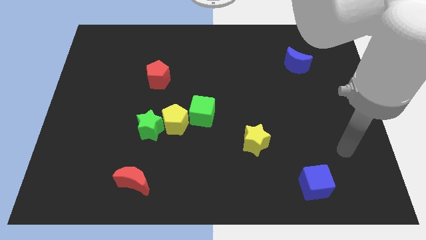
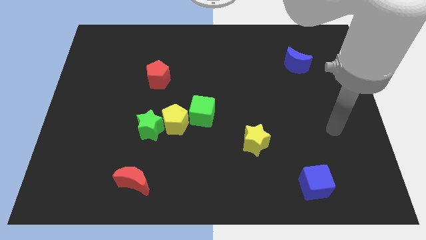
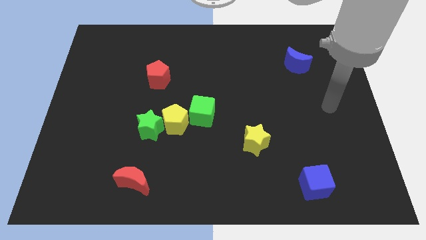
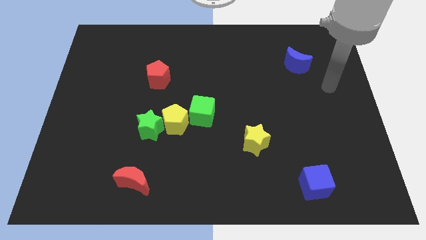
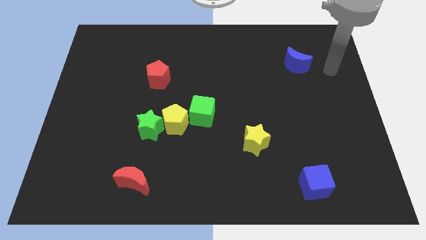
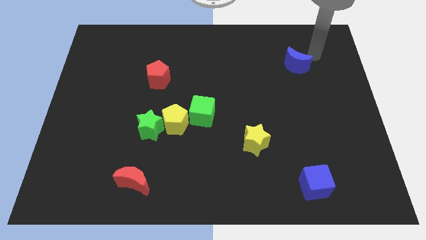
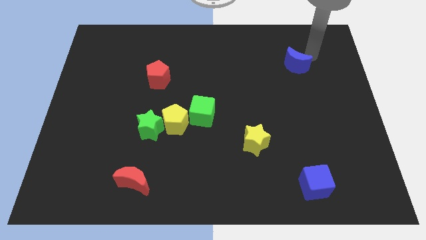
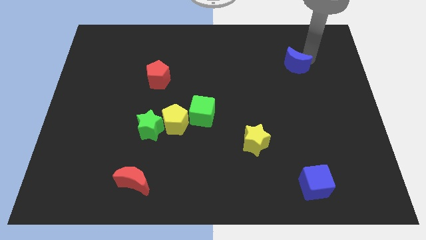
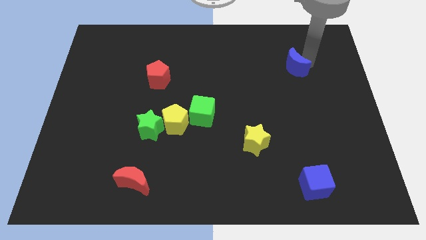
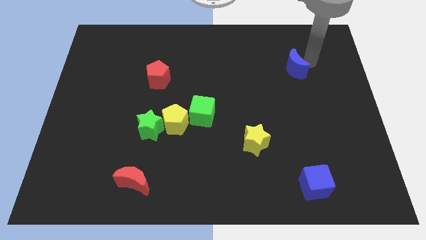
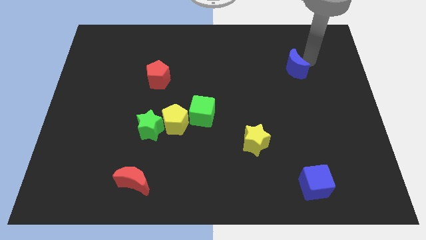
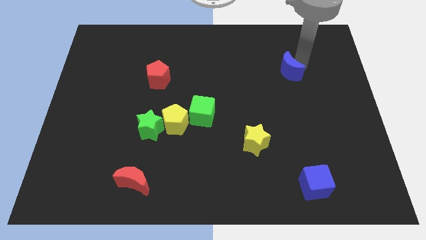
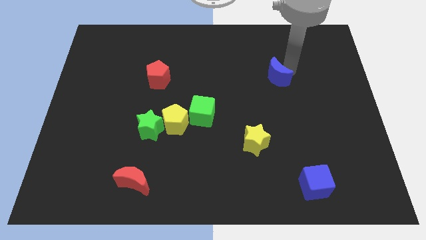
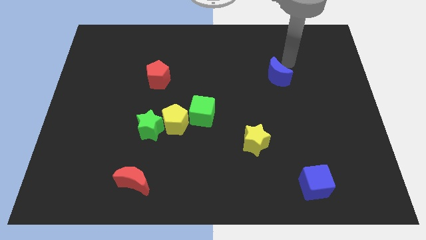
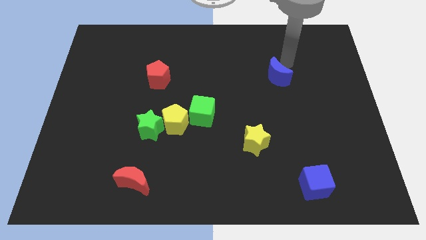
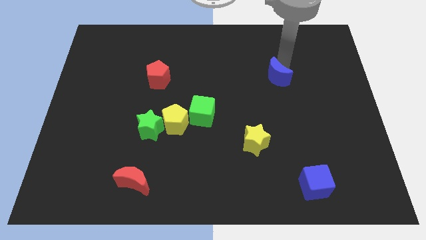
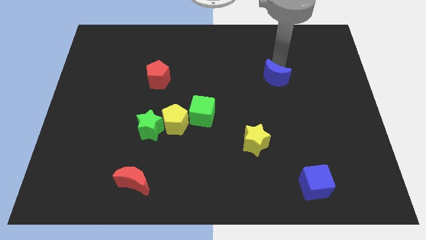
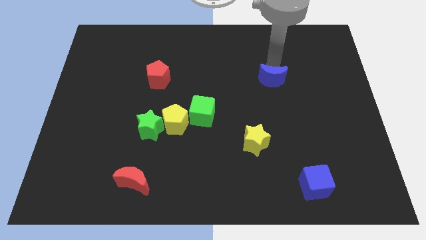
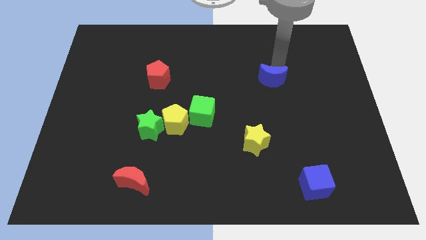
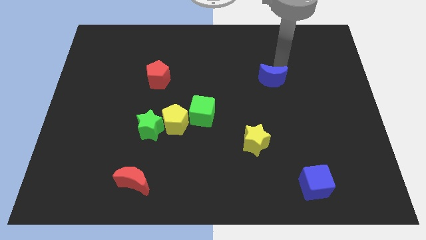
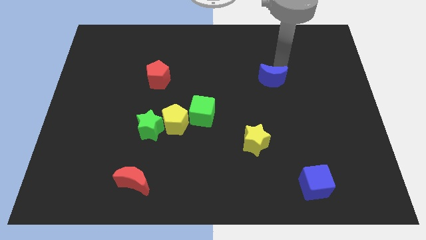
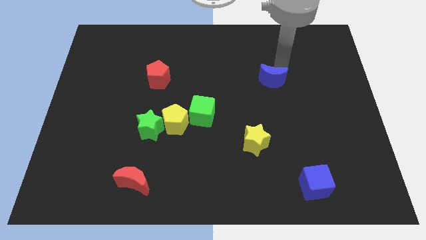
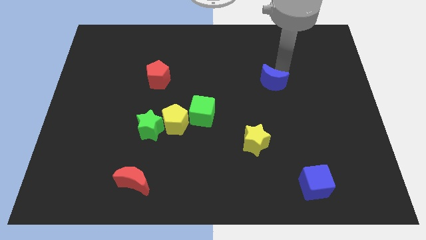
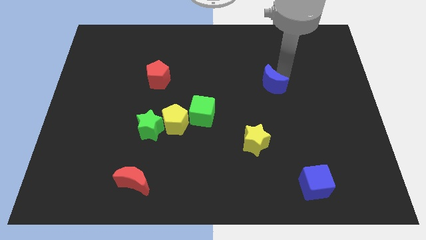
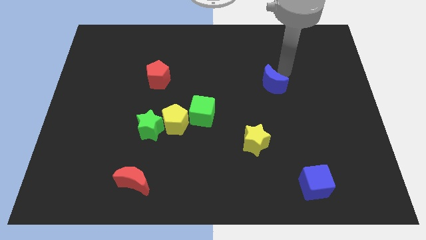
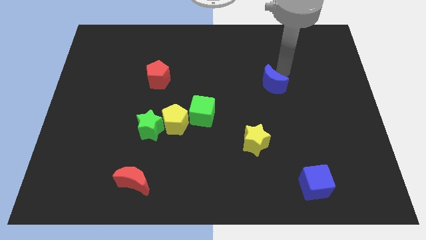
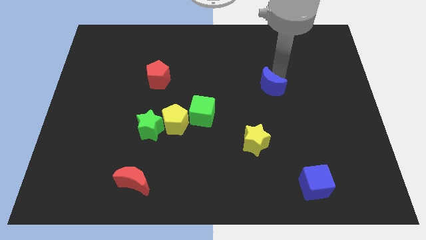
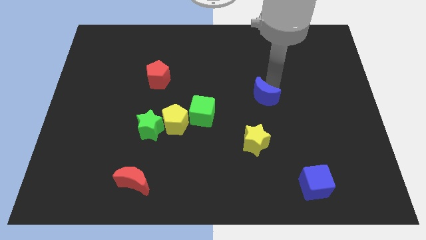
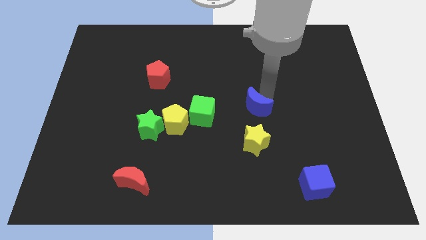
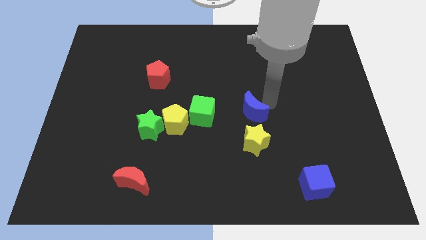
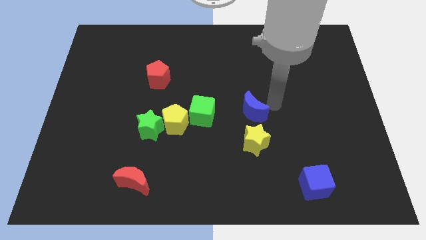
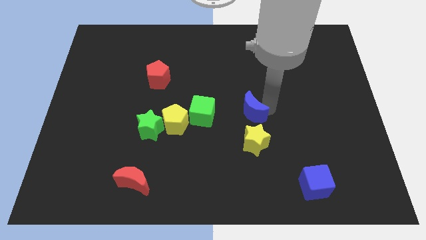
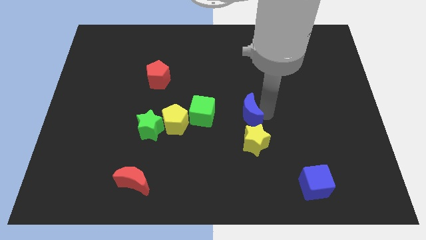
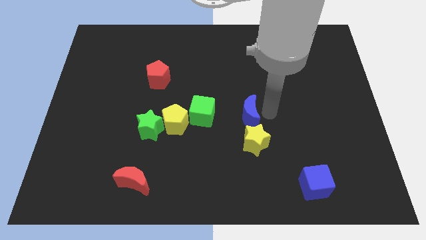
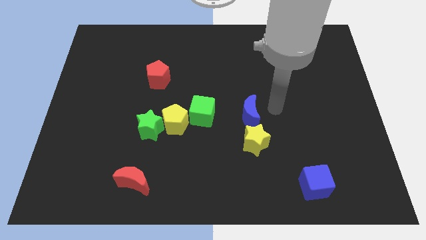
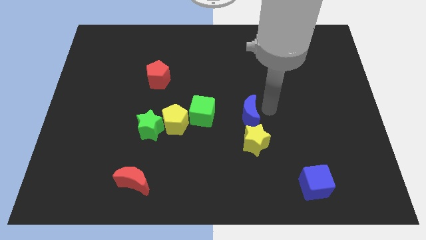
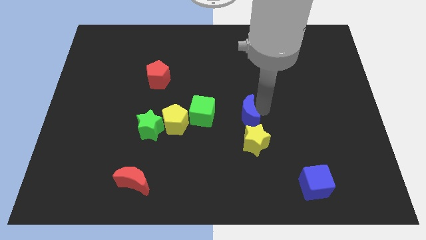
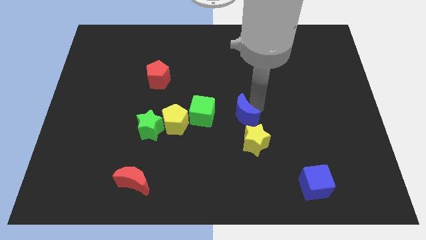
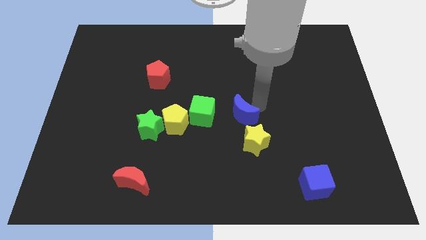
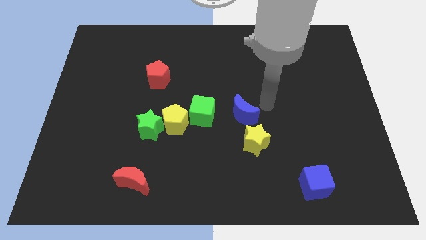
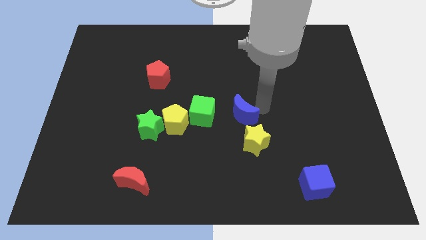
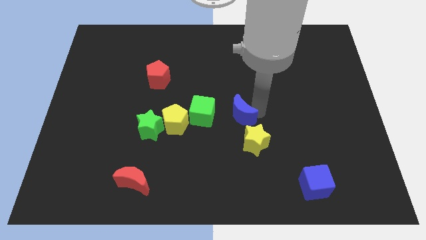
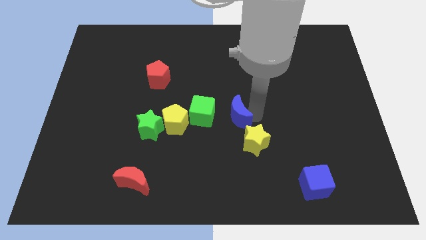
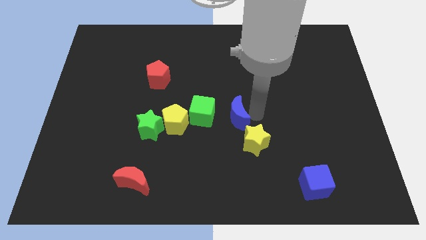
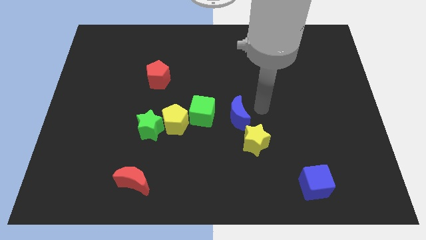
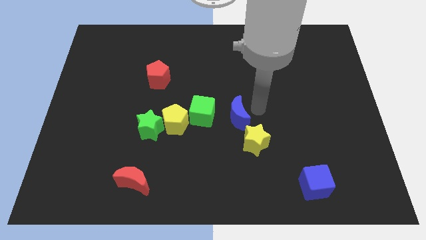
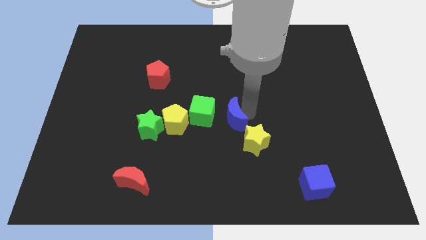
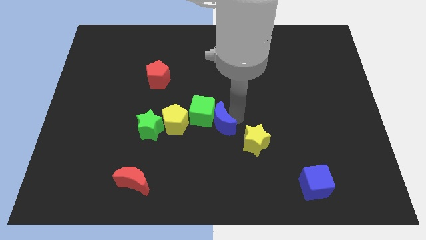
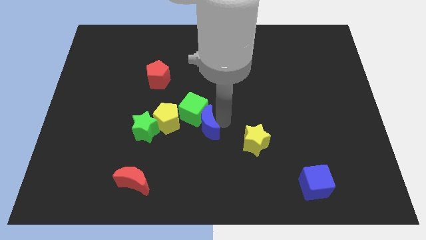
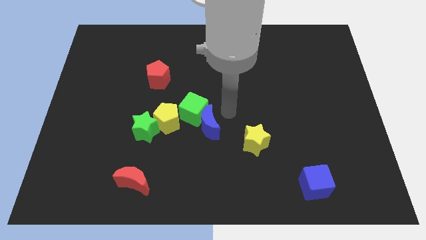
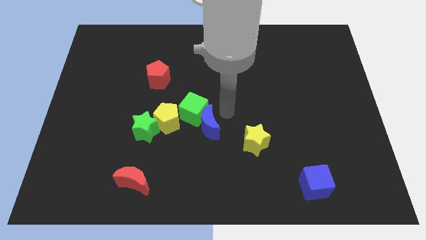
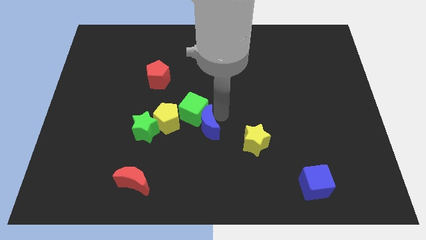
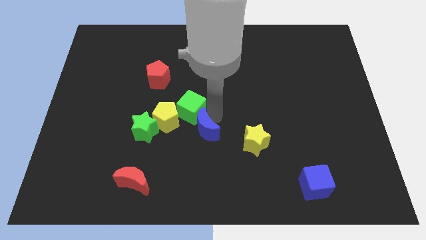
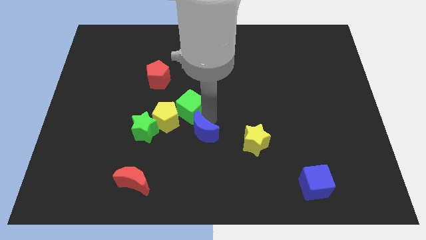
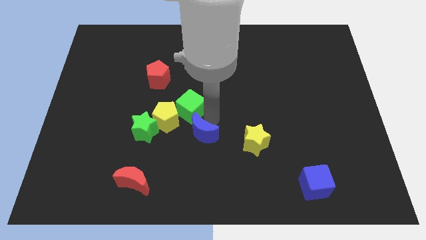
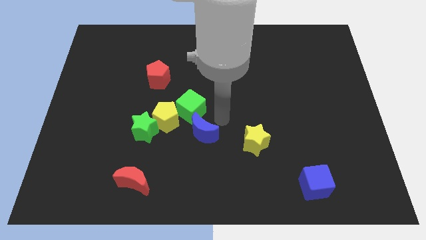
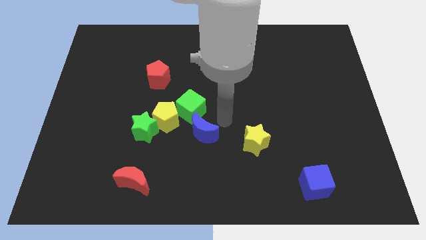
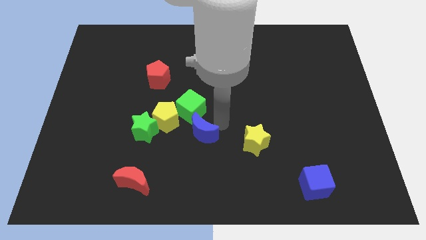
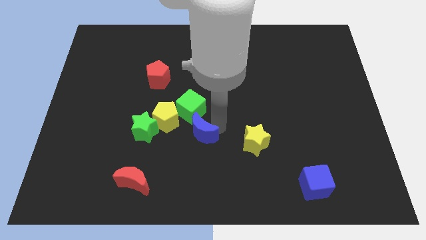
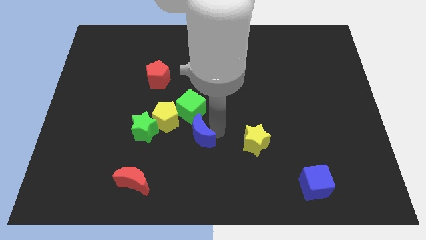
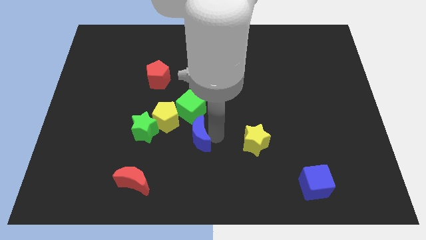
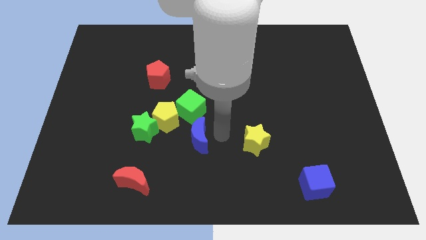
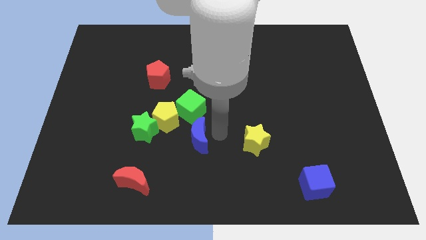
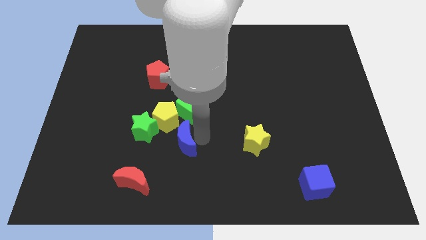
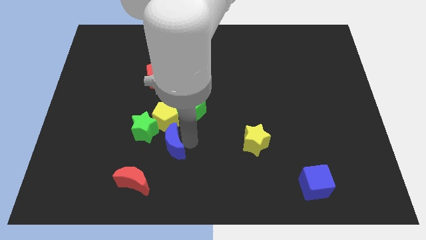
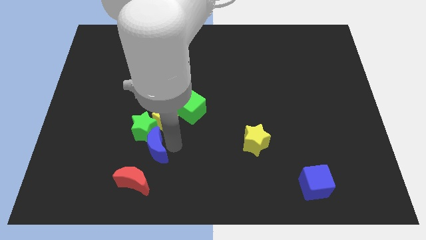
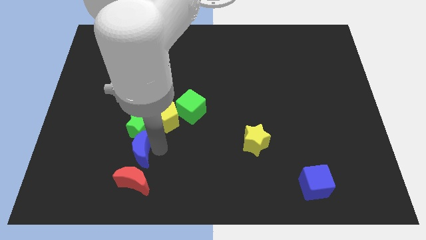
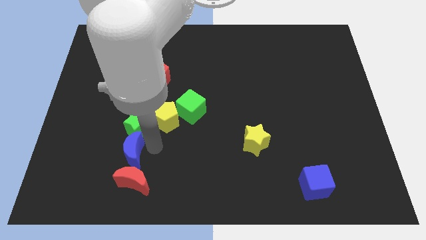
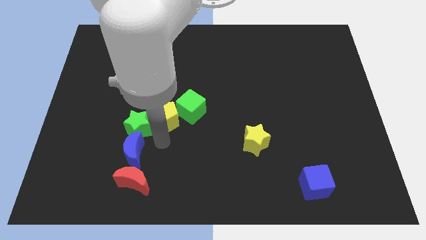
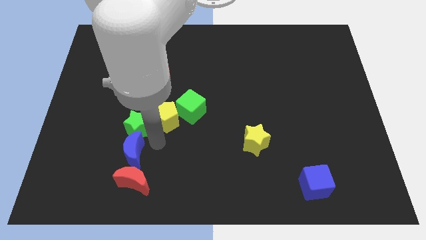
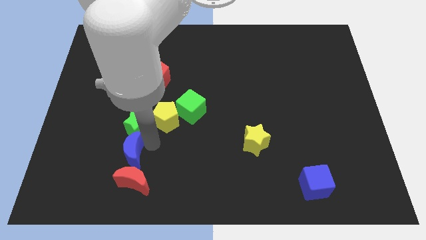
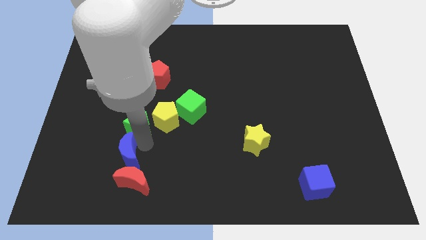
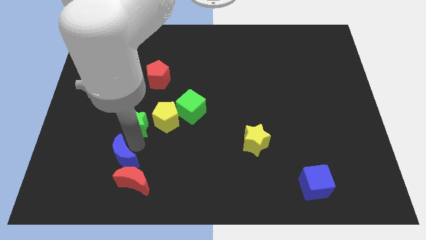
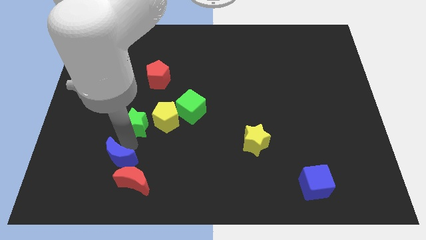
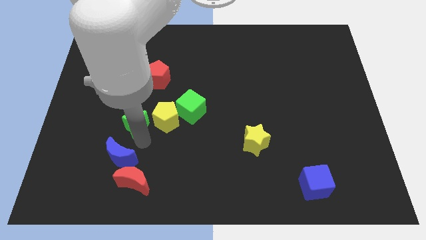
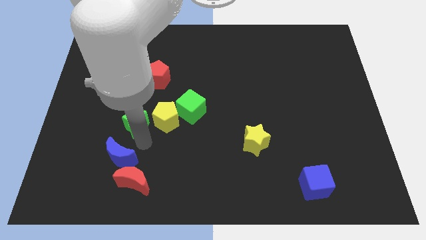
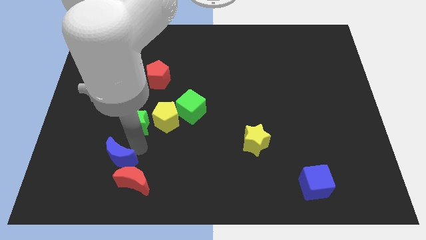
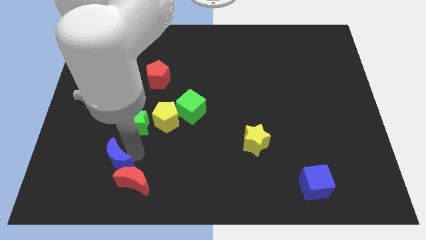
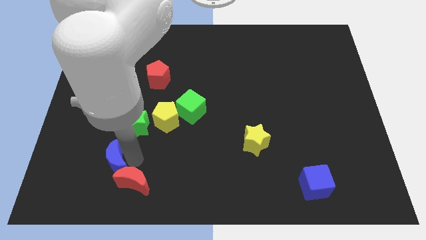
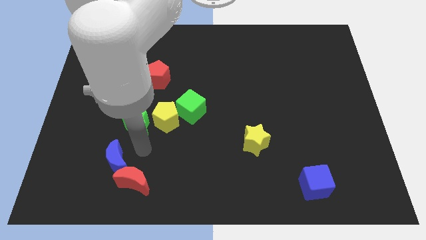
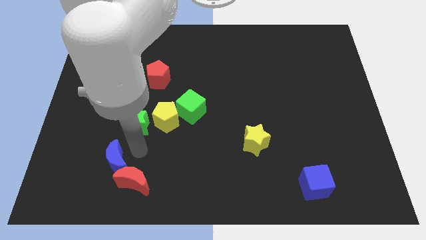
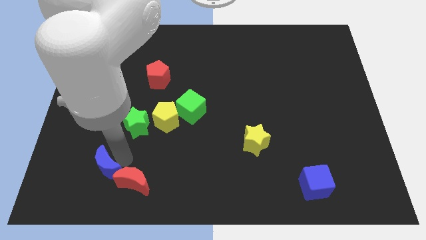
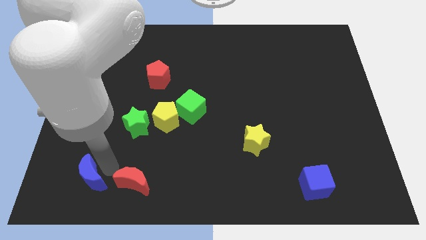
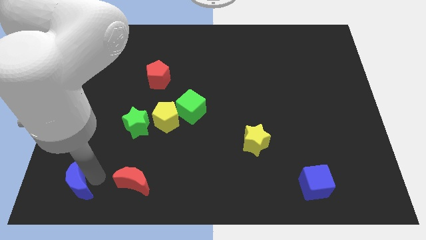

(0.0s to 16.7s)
move the blue moon to the bottom left of the board
